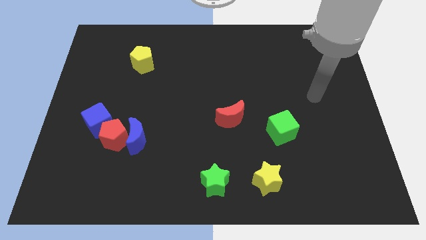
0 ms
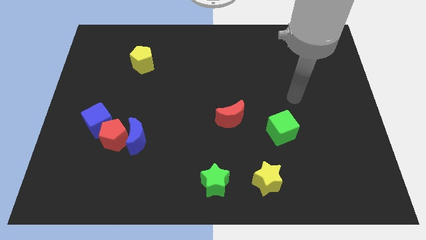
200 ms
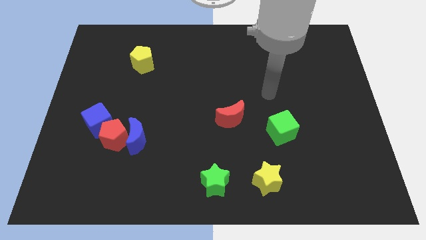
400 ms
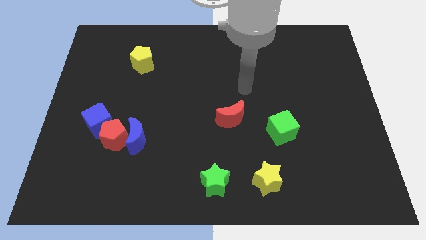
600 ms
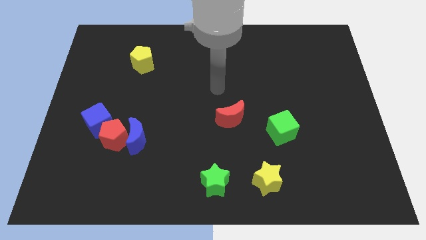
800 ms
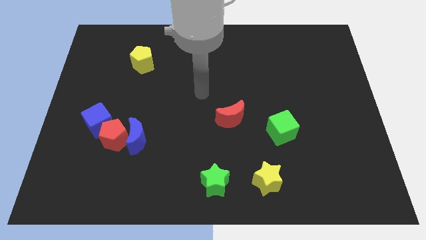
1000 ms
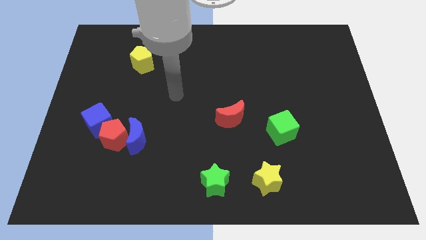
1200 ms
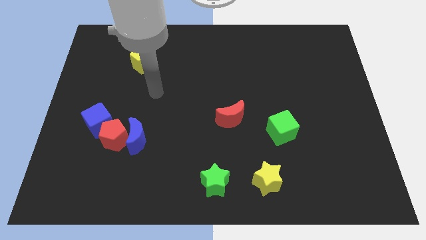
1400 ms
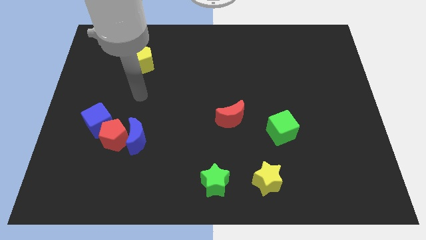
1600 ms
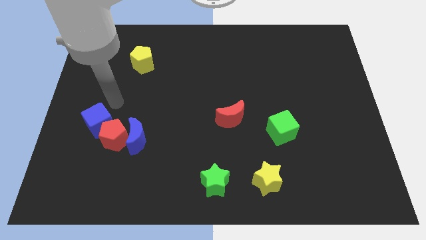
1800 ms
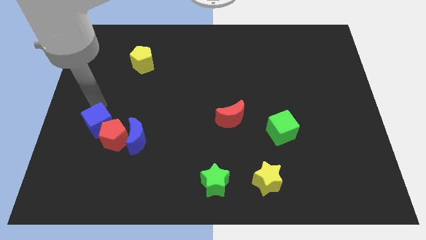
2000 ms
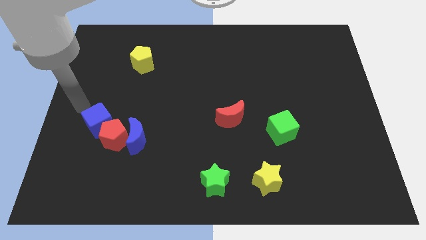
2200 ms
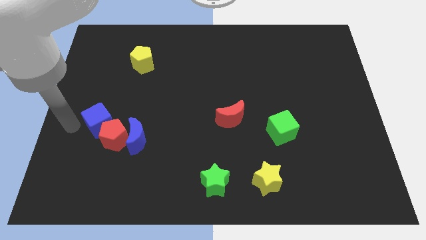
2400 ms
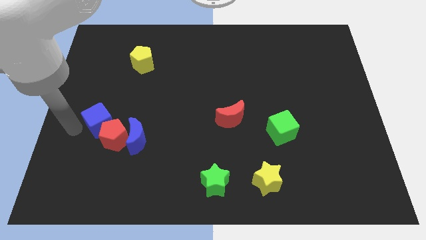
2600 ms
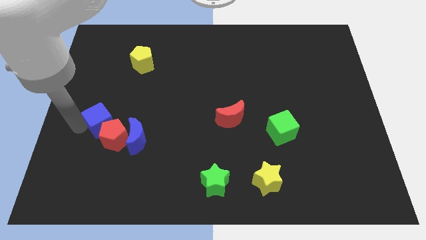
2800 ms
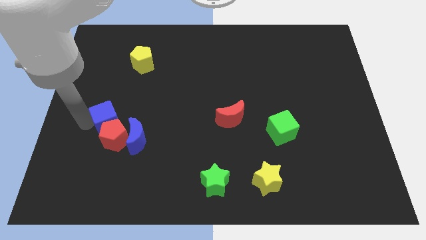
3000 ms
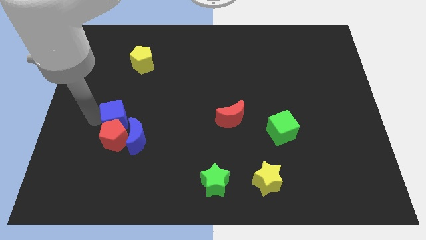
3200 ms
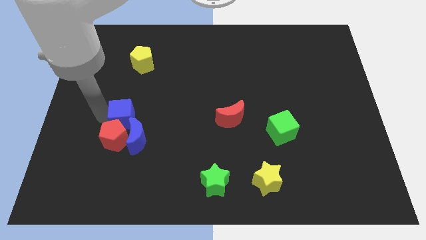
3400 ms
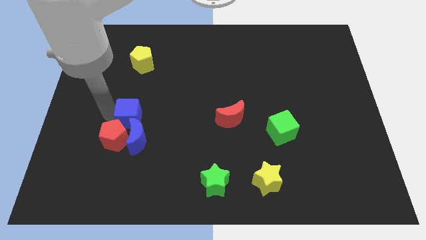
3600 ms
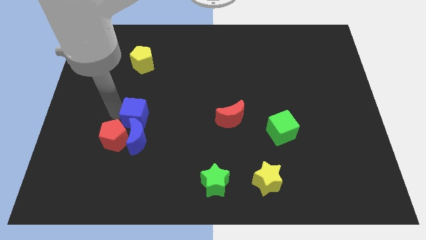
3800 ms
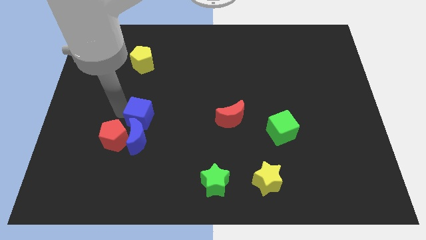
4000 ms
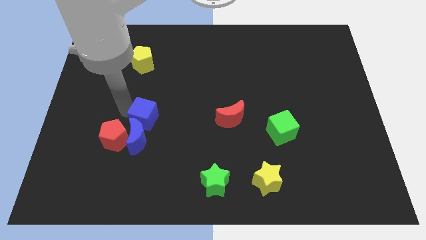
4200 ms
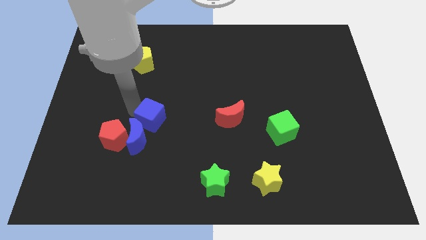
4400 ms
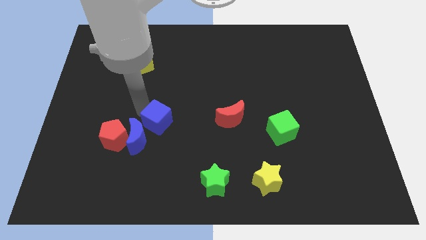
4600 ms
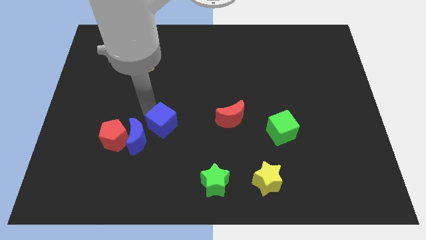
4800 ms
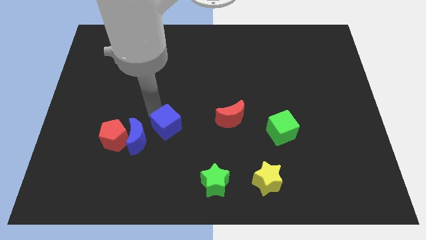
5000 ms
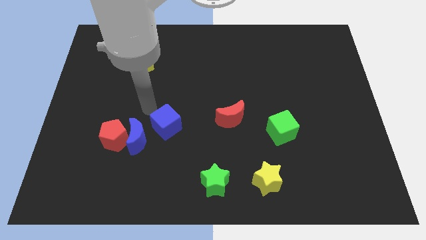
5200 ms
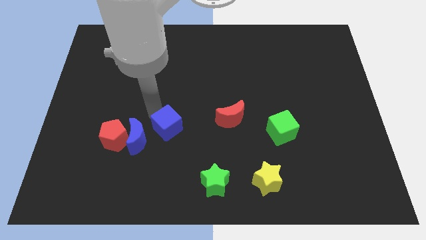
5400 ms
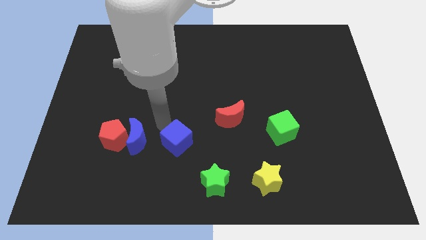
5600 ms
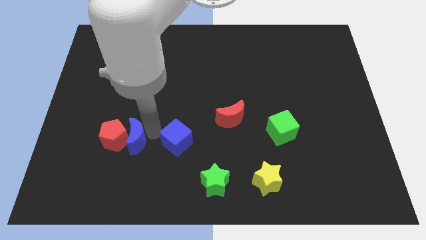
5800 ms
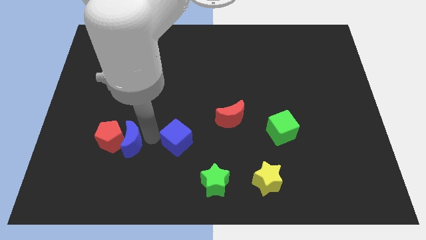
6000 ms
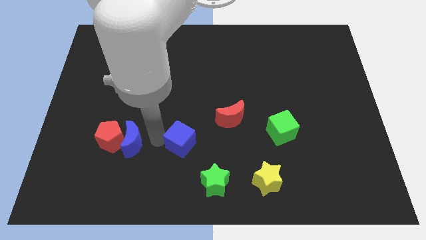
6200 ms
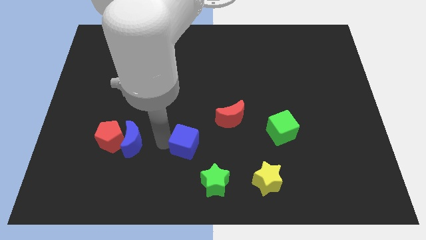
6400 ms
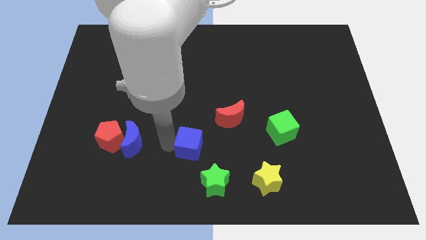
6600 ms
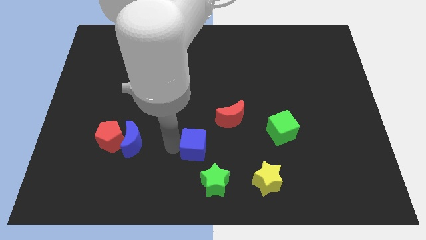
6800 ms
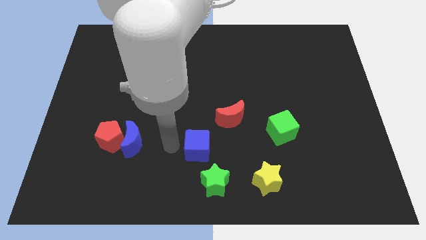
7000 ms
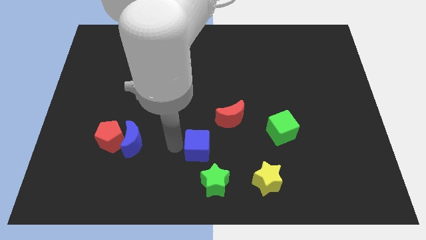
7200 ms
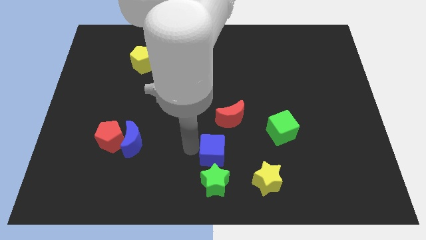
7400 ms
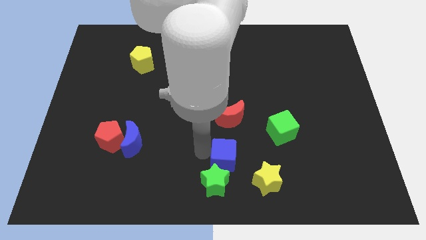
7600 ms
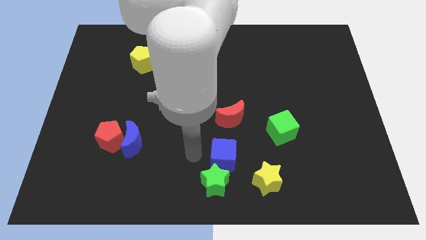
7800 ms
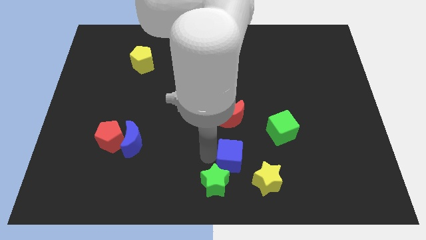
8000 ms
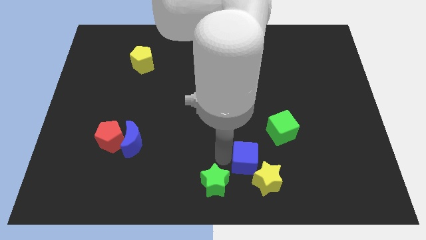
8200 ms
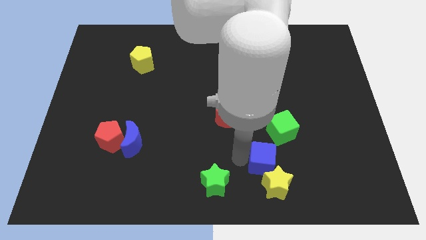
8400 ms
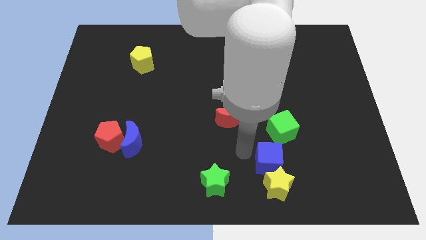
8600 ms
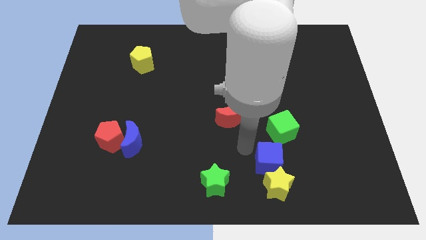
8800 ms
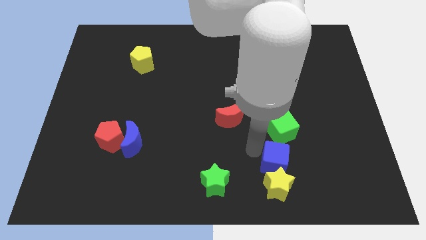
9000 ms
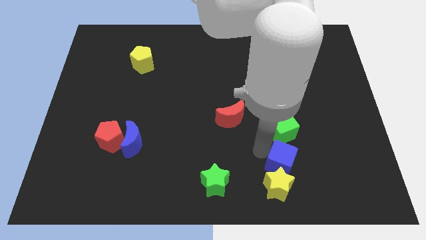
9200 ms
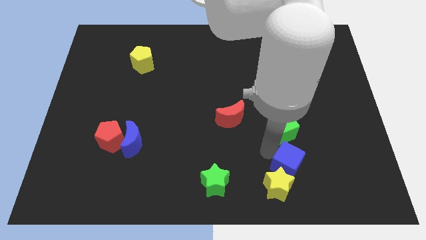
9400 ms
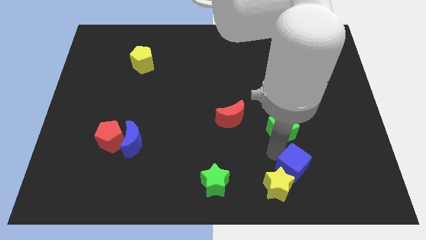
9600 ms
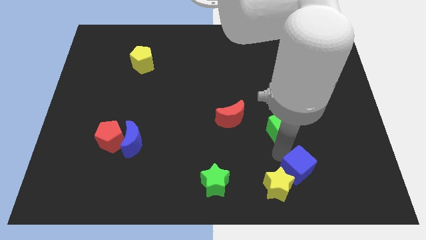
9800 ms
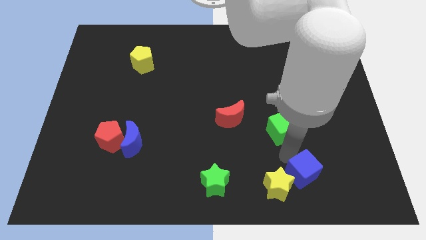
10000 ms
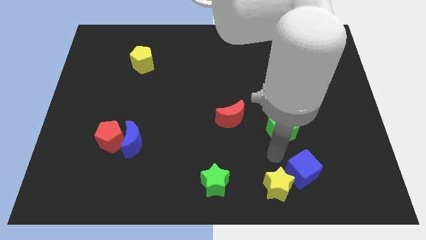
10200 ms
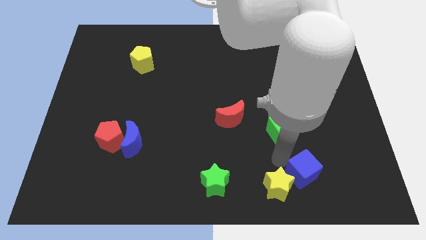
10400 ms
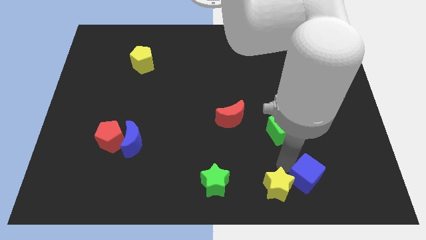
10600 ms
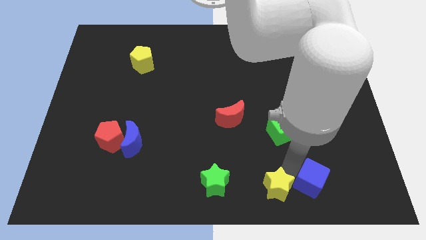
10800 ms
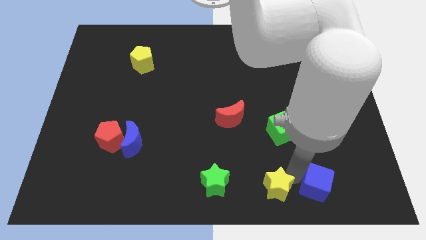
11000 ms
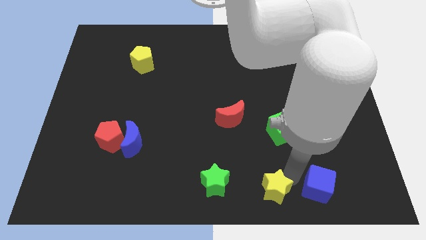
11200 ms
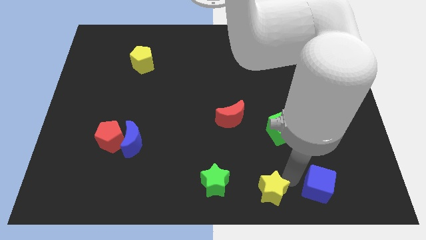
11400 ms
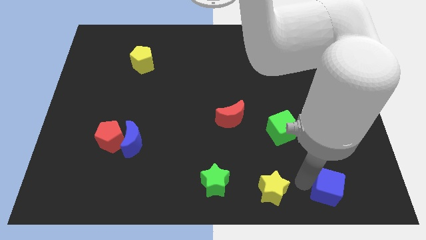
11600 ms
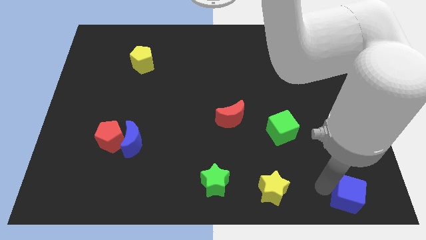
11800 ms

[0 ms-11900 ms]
push the blue cube to the lower right corner
